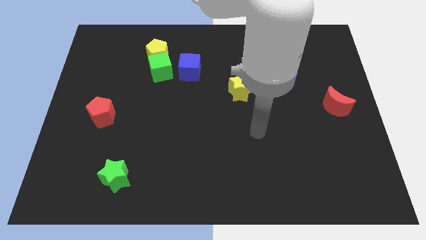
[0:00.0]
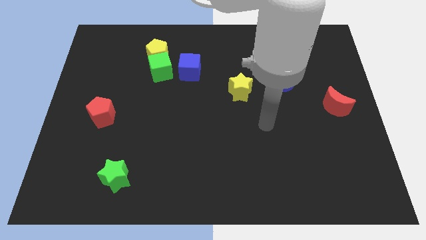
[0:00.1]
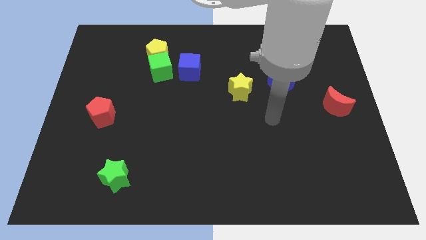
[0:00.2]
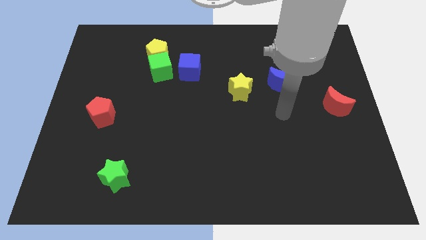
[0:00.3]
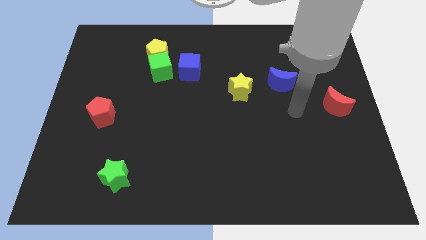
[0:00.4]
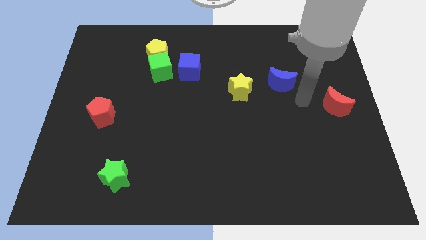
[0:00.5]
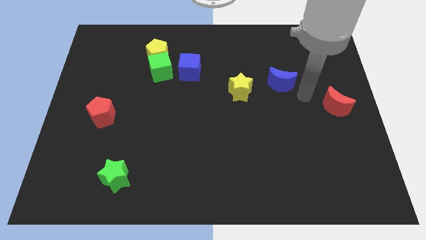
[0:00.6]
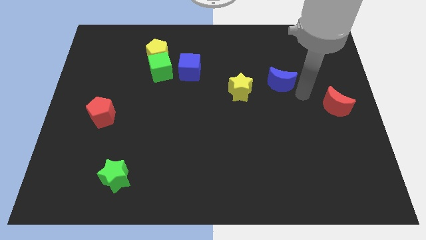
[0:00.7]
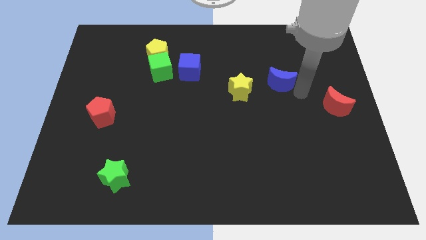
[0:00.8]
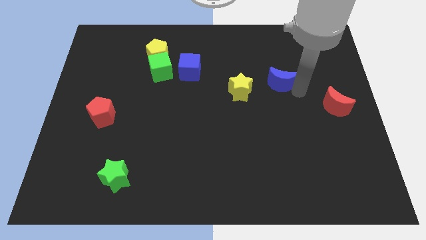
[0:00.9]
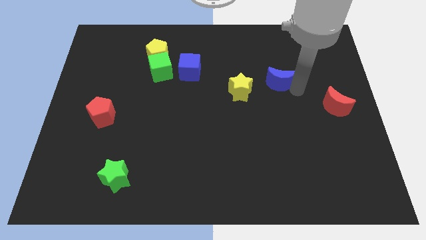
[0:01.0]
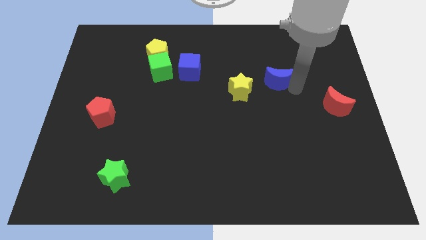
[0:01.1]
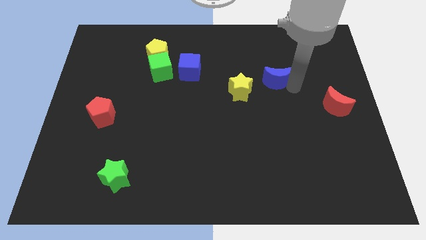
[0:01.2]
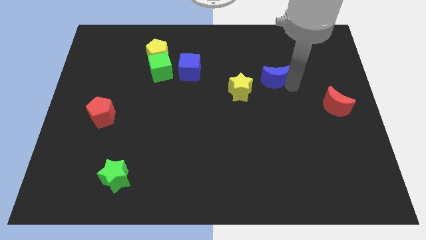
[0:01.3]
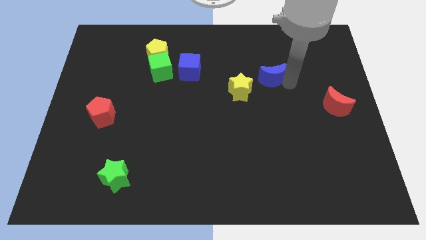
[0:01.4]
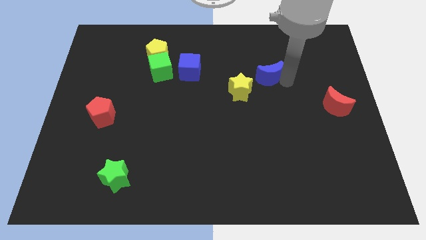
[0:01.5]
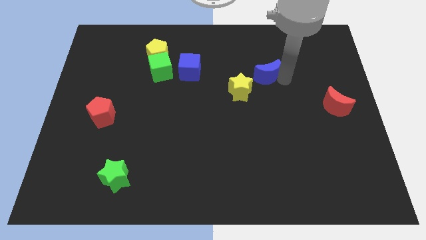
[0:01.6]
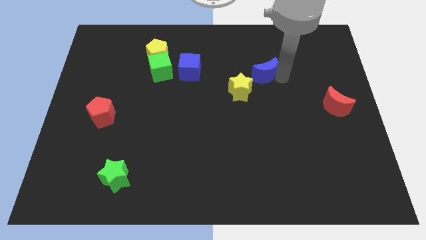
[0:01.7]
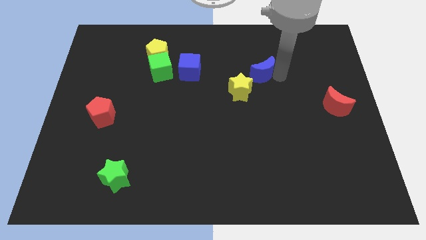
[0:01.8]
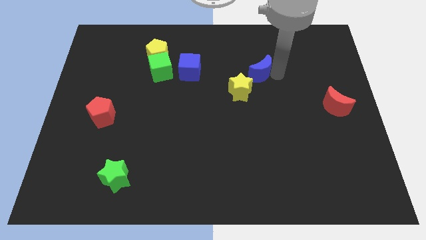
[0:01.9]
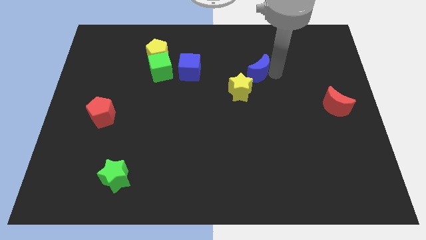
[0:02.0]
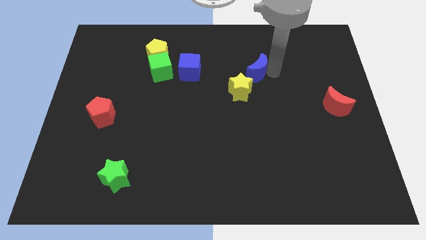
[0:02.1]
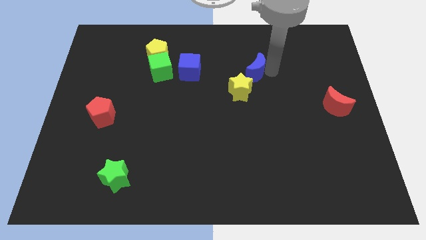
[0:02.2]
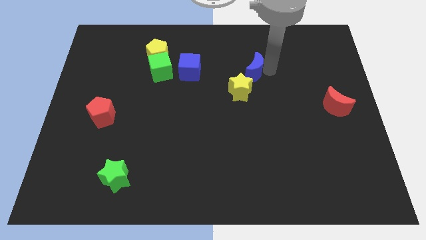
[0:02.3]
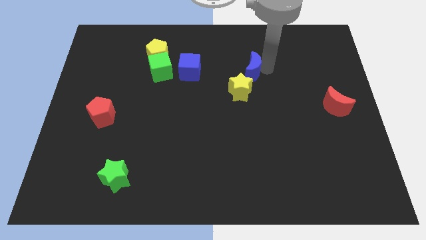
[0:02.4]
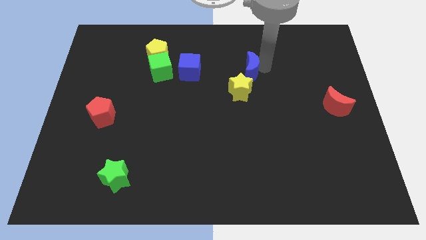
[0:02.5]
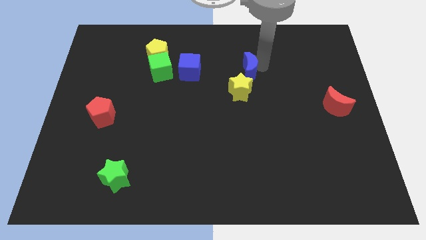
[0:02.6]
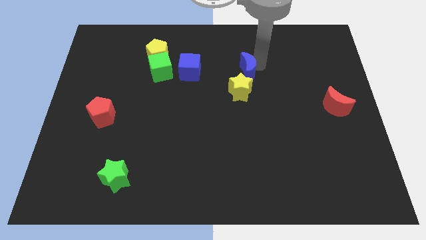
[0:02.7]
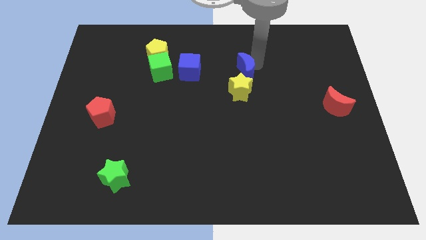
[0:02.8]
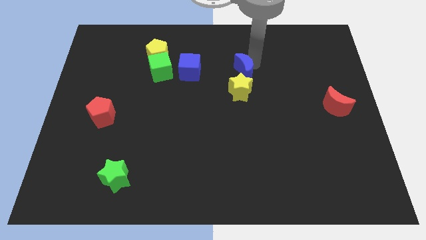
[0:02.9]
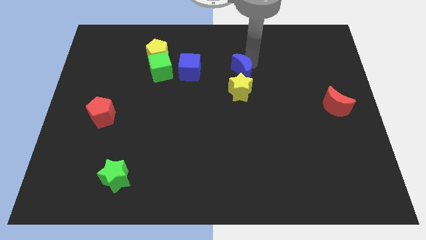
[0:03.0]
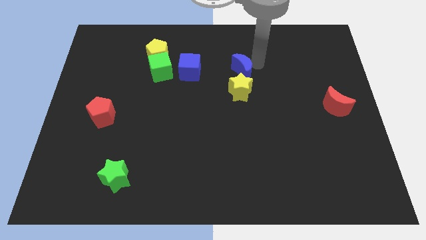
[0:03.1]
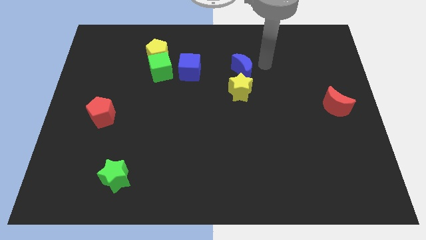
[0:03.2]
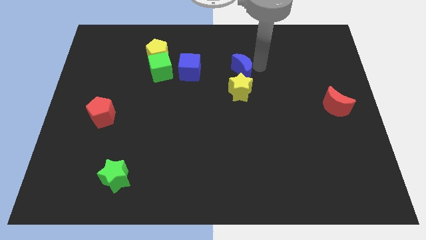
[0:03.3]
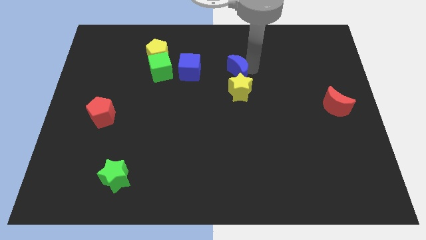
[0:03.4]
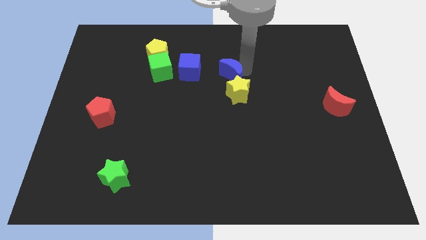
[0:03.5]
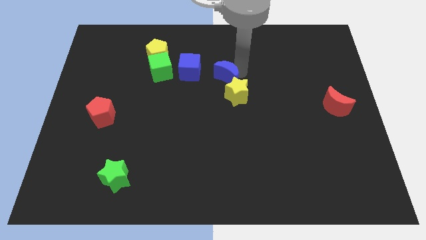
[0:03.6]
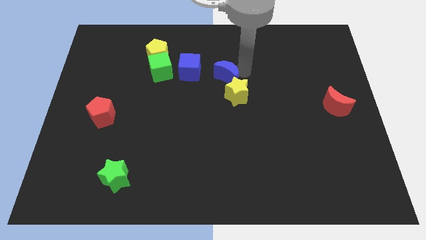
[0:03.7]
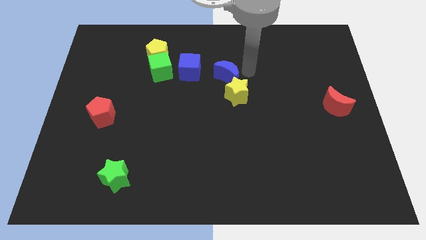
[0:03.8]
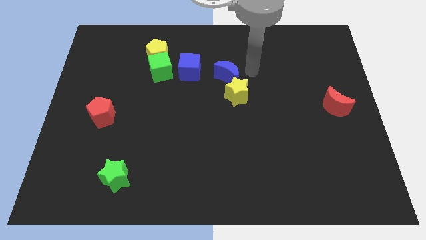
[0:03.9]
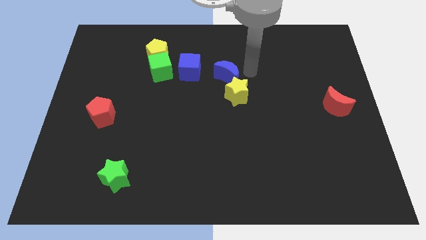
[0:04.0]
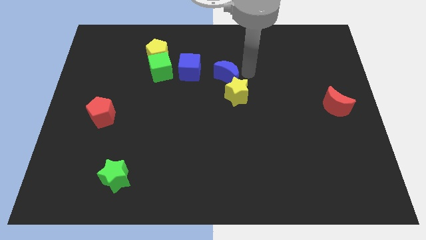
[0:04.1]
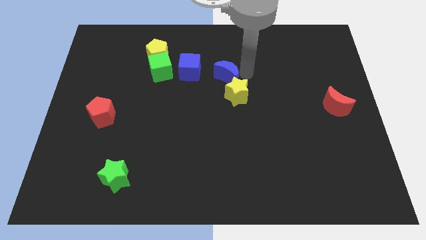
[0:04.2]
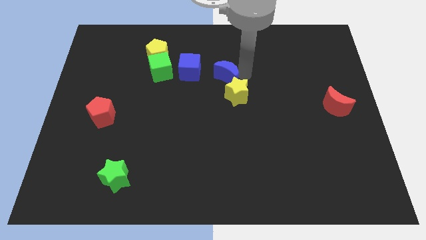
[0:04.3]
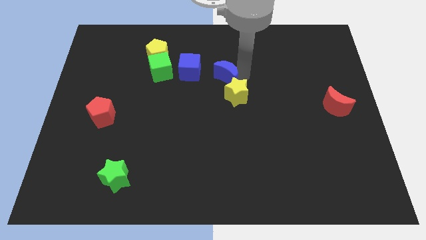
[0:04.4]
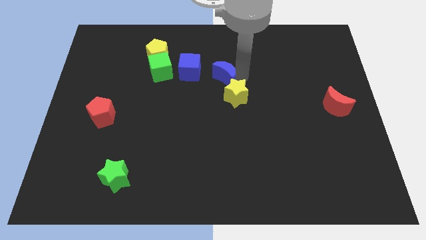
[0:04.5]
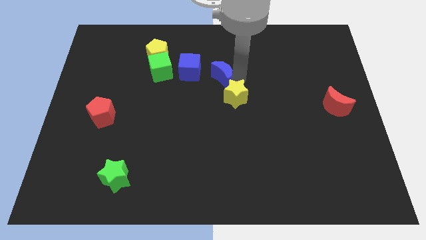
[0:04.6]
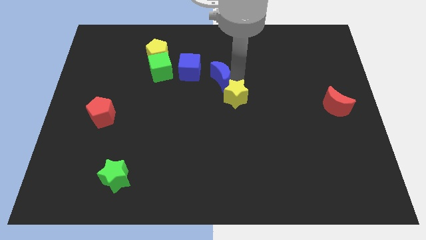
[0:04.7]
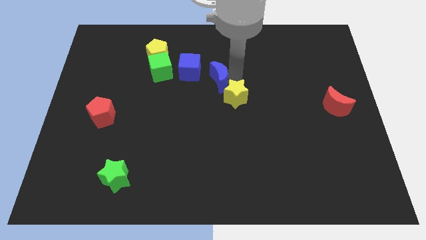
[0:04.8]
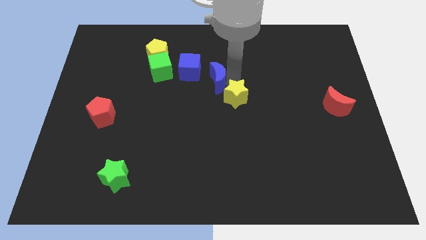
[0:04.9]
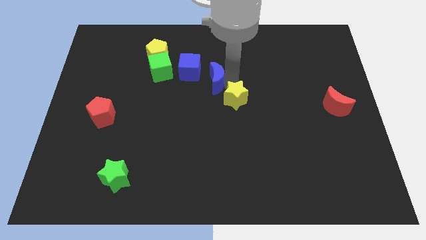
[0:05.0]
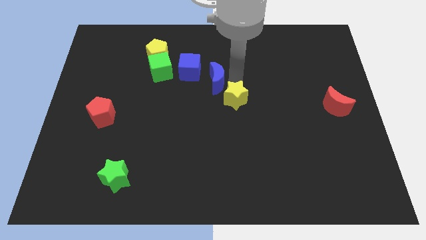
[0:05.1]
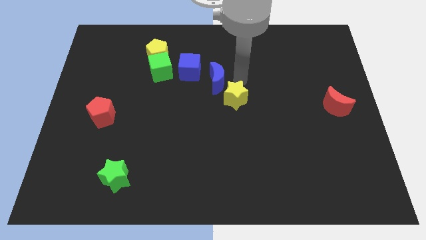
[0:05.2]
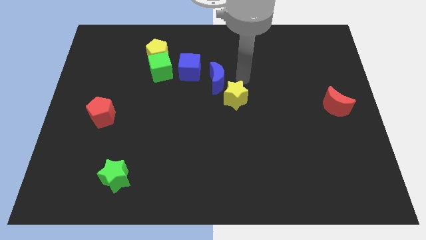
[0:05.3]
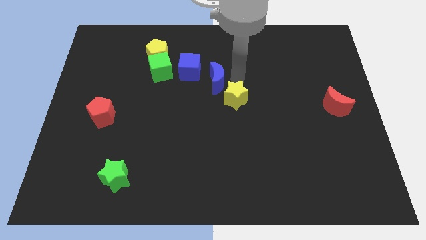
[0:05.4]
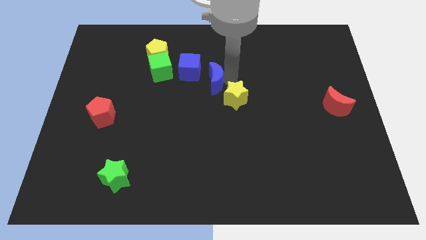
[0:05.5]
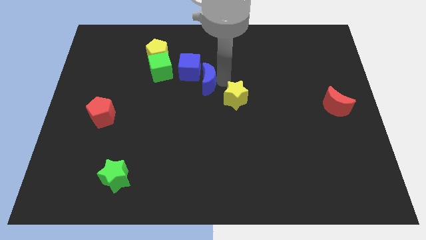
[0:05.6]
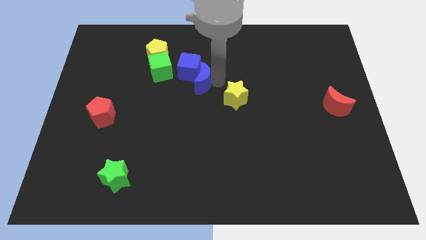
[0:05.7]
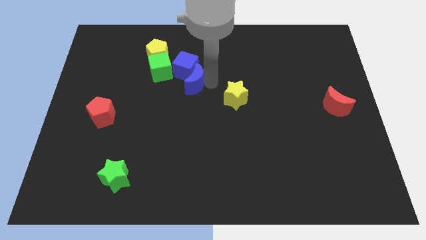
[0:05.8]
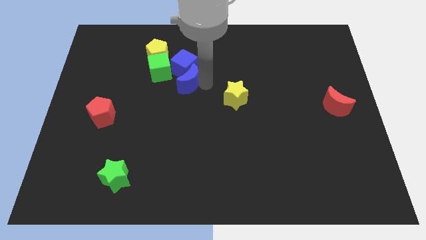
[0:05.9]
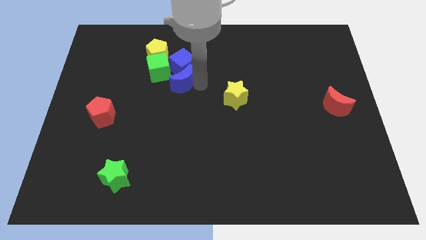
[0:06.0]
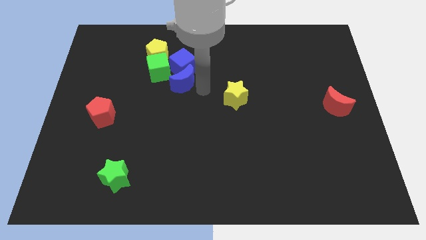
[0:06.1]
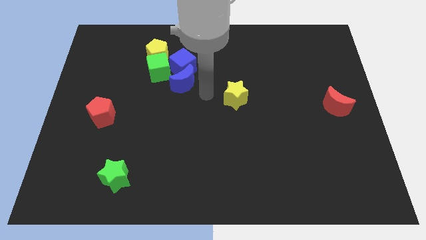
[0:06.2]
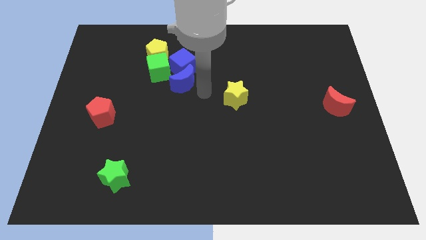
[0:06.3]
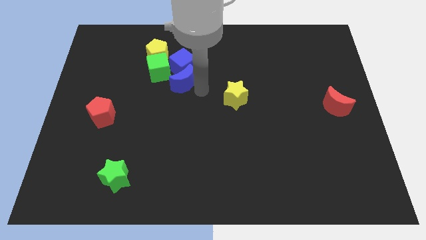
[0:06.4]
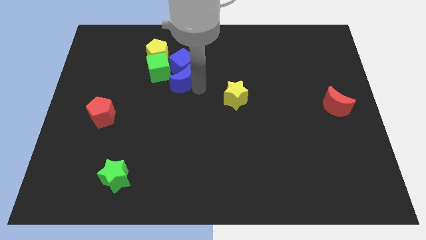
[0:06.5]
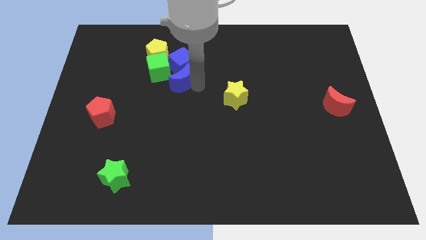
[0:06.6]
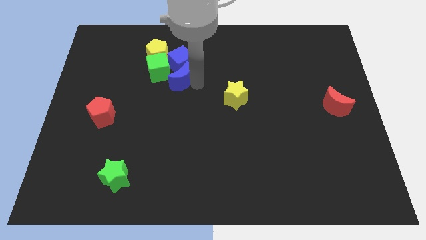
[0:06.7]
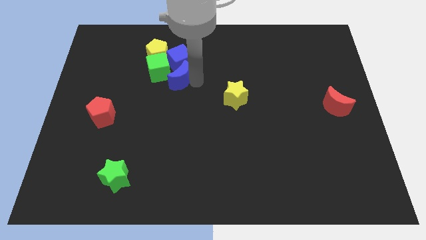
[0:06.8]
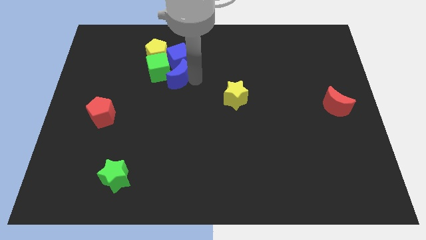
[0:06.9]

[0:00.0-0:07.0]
put the blue moon to the green cube
